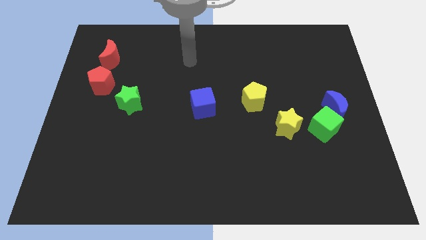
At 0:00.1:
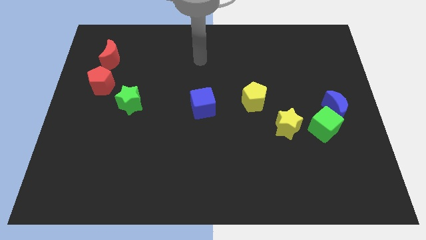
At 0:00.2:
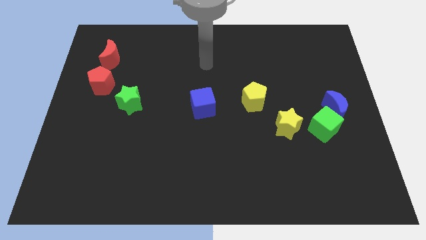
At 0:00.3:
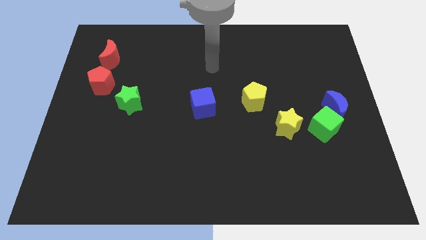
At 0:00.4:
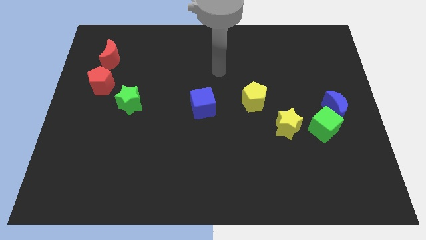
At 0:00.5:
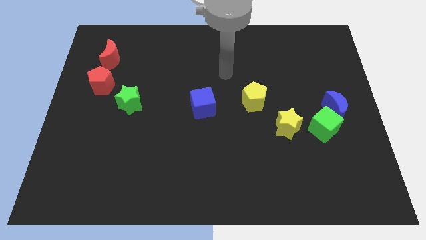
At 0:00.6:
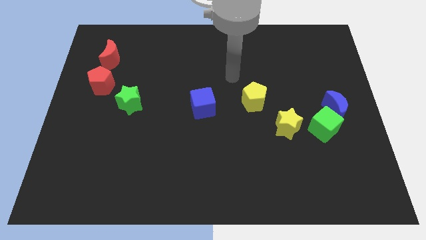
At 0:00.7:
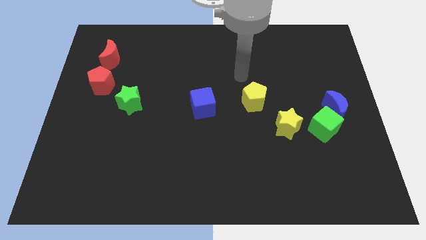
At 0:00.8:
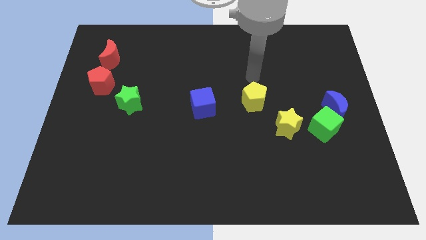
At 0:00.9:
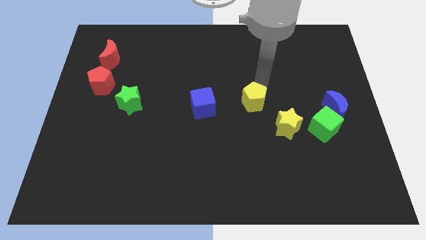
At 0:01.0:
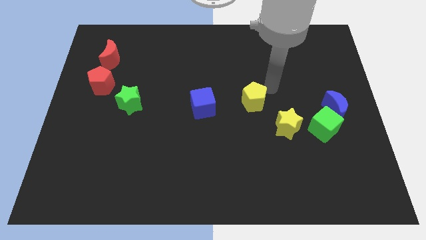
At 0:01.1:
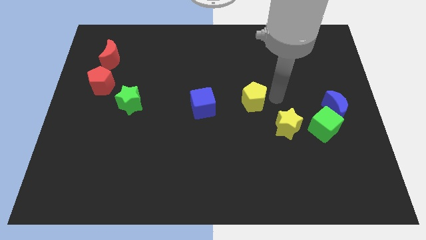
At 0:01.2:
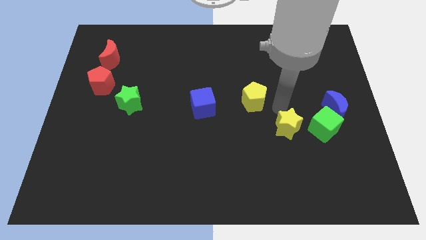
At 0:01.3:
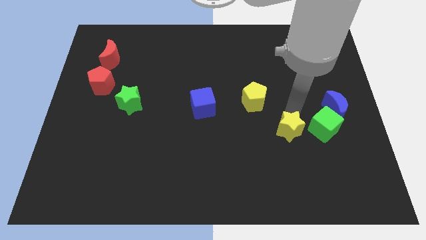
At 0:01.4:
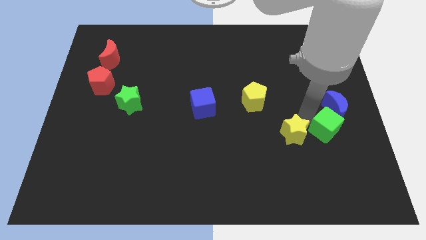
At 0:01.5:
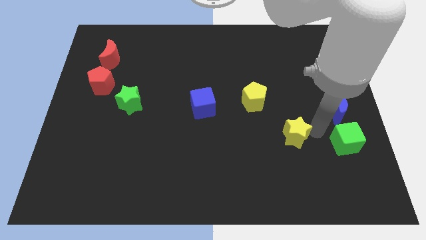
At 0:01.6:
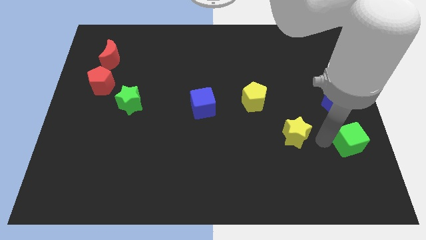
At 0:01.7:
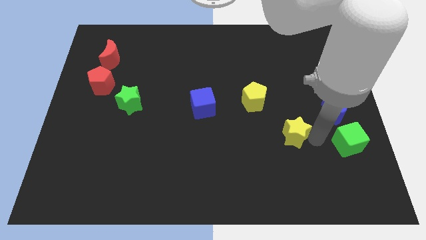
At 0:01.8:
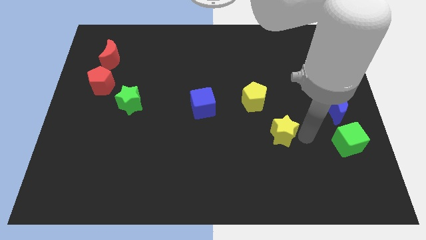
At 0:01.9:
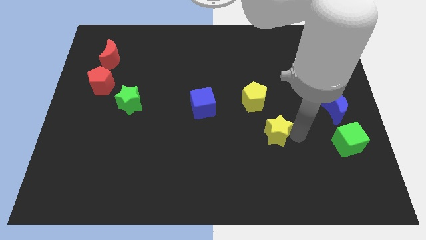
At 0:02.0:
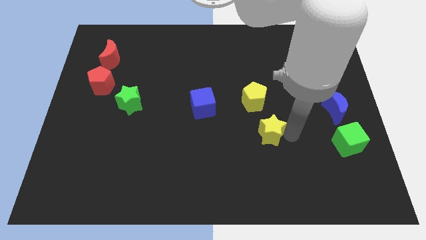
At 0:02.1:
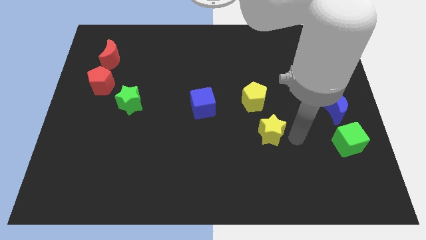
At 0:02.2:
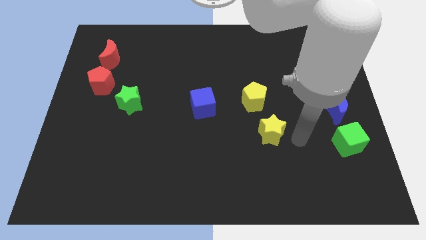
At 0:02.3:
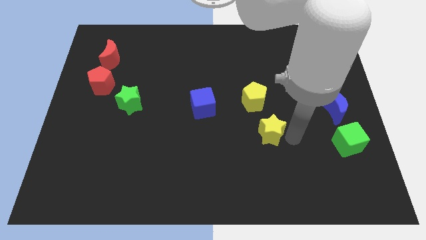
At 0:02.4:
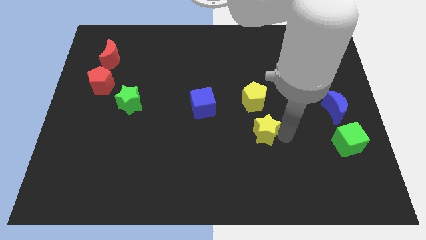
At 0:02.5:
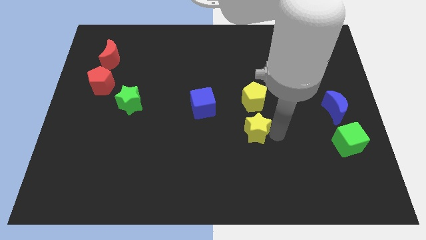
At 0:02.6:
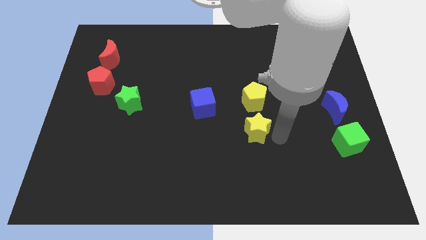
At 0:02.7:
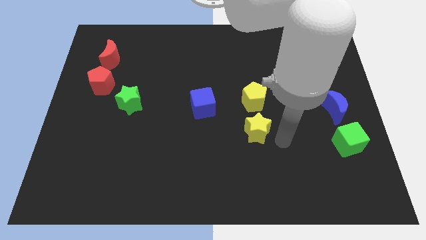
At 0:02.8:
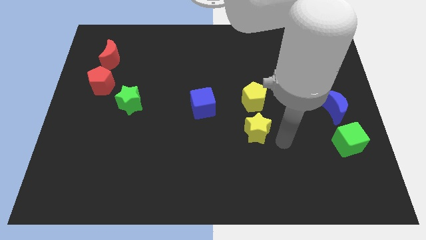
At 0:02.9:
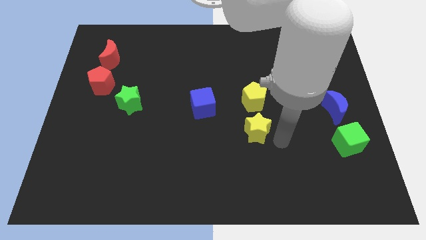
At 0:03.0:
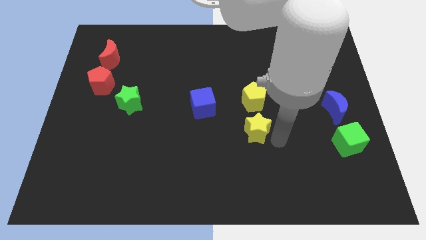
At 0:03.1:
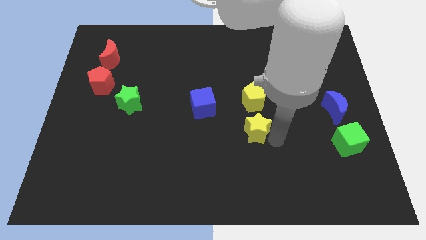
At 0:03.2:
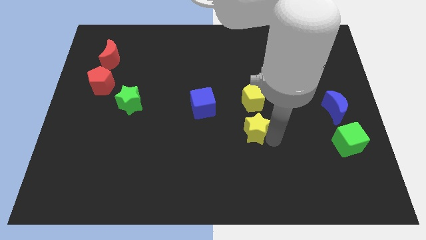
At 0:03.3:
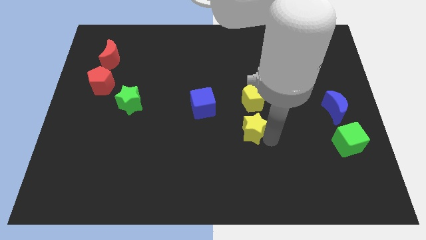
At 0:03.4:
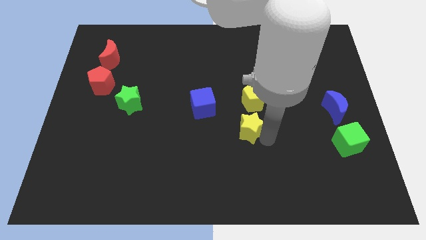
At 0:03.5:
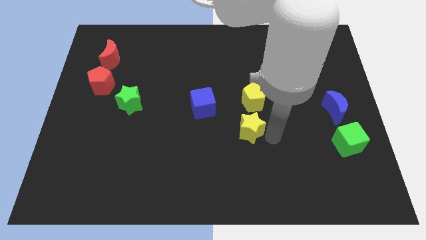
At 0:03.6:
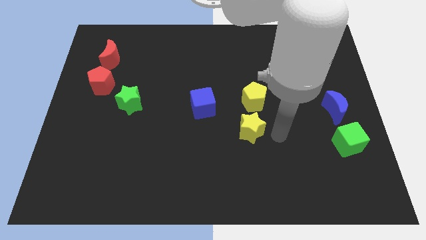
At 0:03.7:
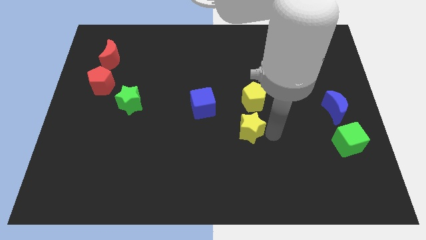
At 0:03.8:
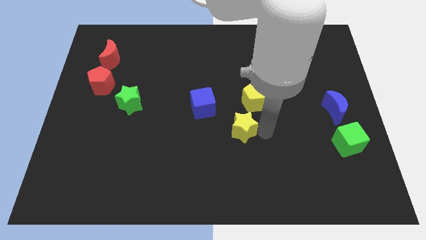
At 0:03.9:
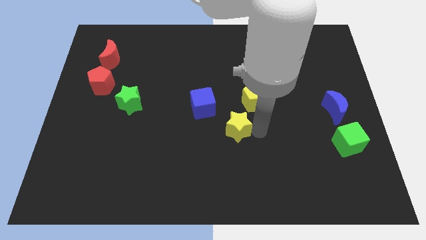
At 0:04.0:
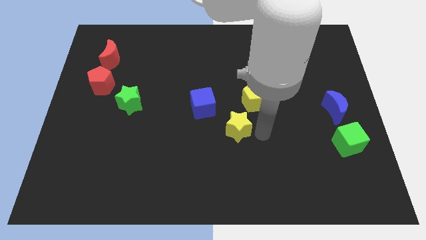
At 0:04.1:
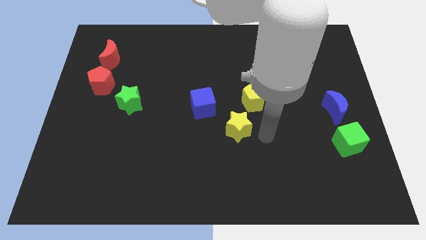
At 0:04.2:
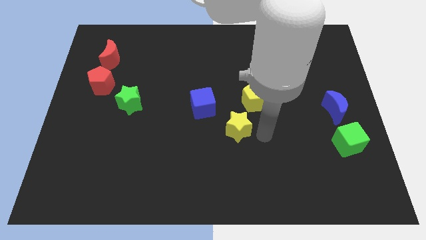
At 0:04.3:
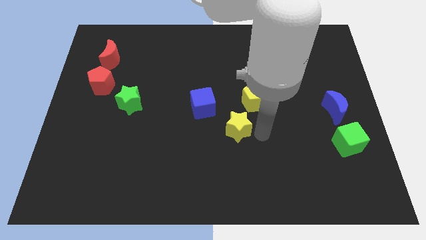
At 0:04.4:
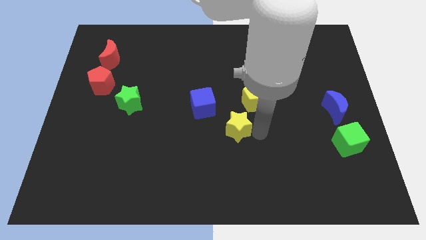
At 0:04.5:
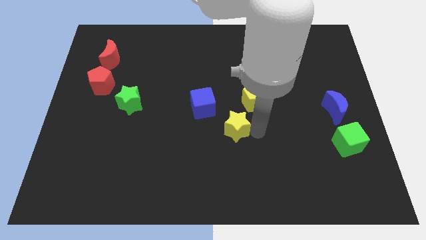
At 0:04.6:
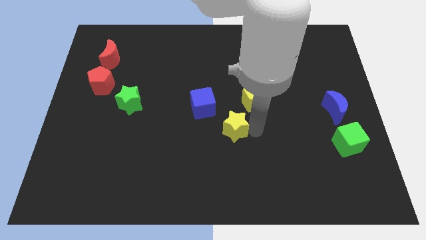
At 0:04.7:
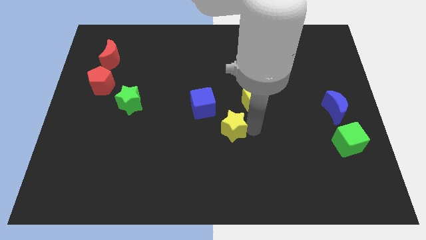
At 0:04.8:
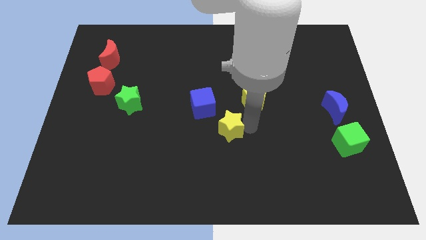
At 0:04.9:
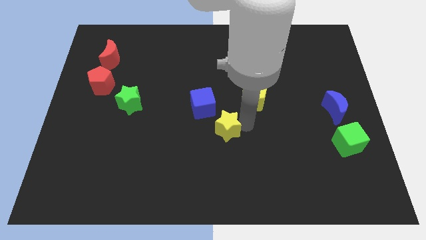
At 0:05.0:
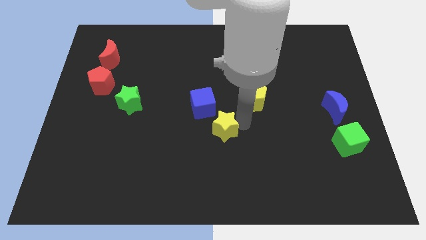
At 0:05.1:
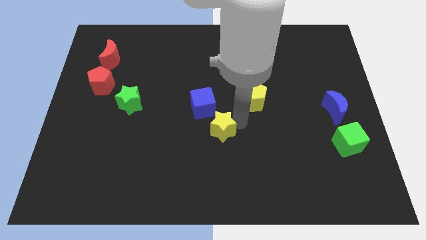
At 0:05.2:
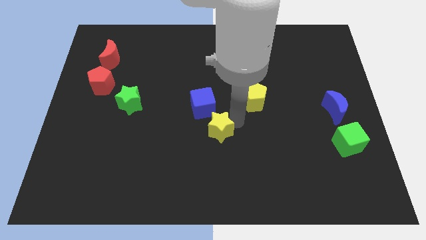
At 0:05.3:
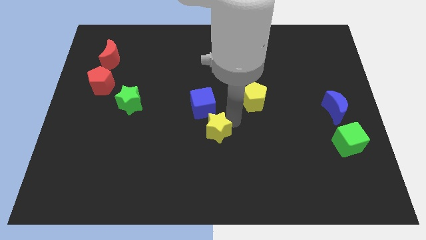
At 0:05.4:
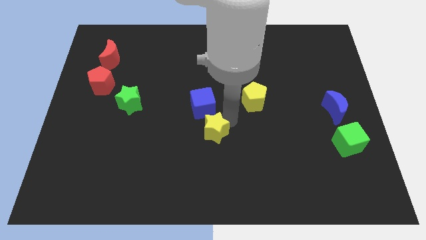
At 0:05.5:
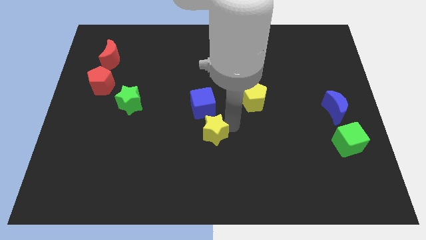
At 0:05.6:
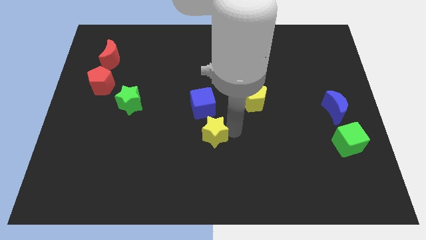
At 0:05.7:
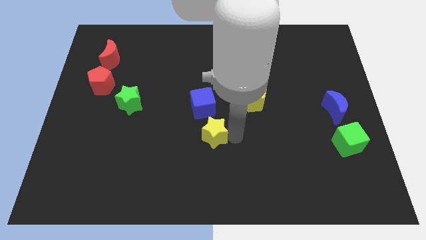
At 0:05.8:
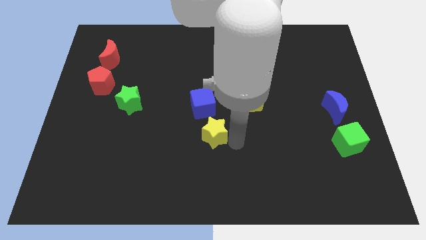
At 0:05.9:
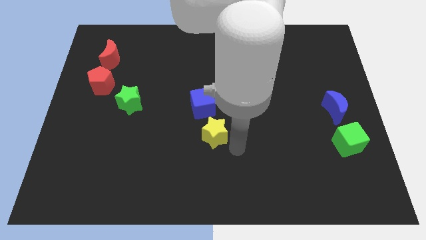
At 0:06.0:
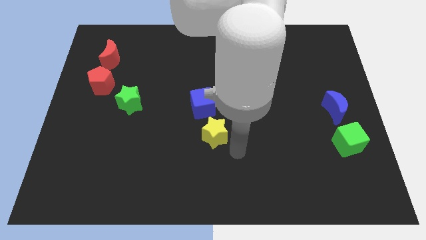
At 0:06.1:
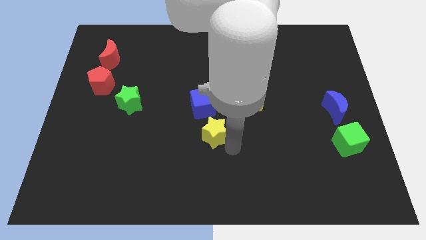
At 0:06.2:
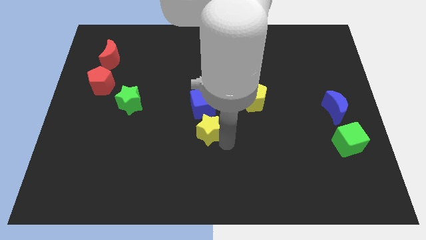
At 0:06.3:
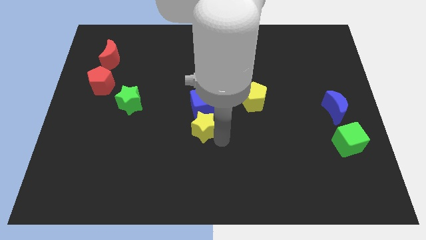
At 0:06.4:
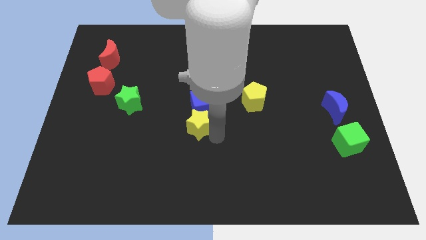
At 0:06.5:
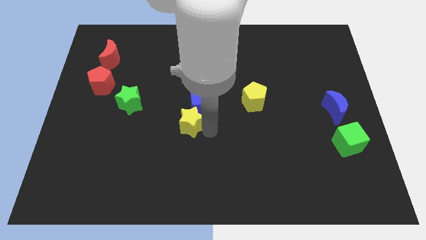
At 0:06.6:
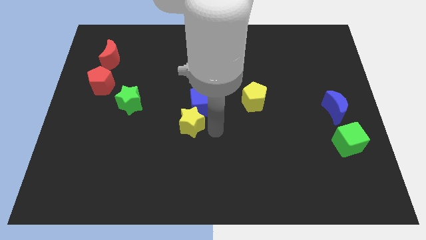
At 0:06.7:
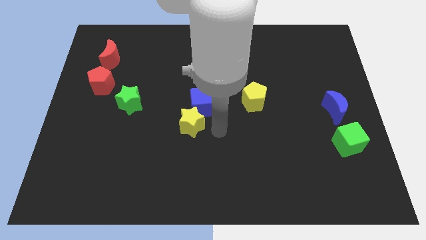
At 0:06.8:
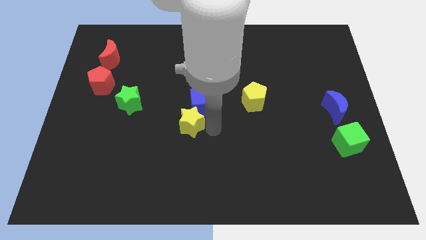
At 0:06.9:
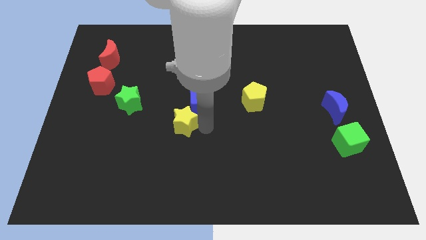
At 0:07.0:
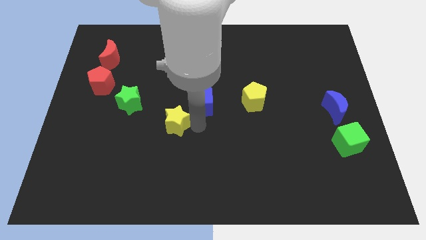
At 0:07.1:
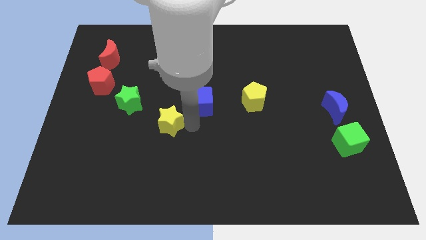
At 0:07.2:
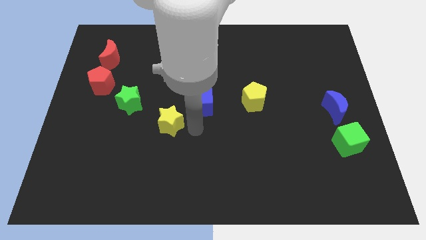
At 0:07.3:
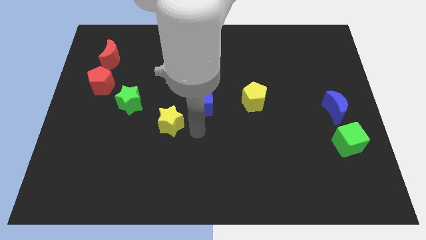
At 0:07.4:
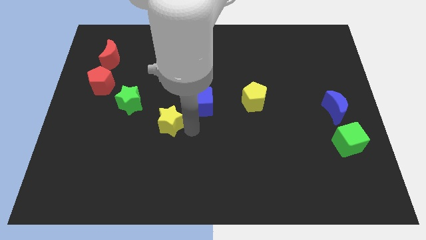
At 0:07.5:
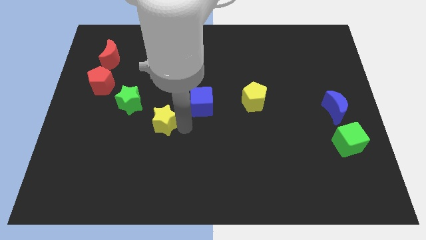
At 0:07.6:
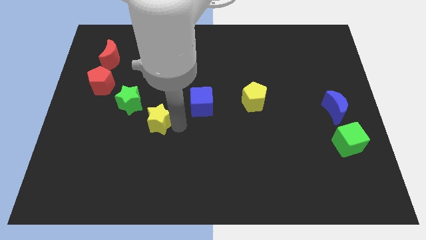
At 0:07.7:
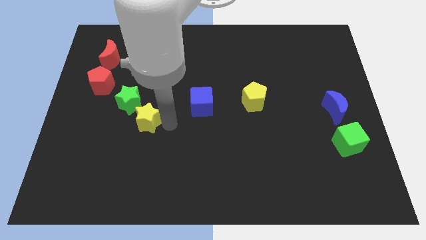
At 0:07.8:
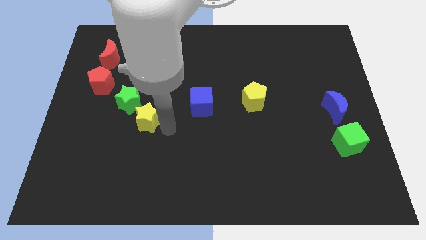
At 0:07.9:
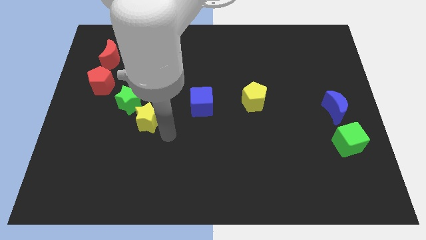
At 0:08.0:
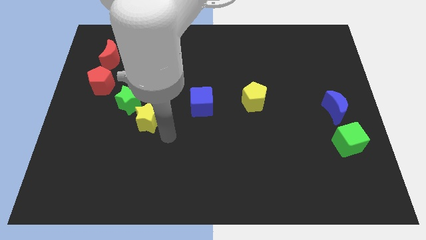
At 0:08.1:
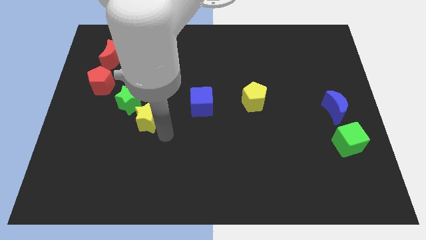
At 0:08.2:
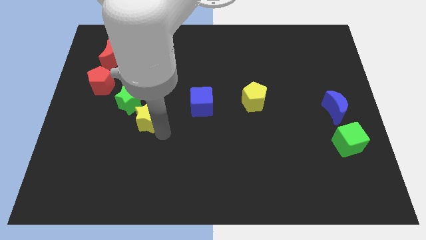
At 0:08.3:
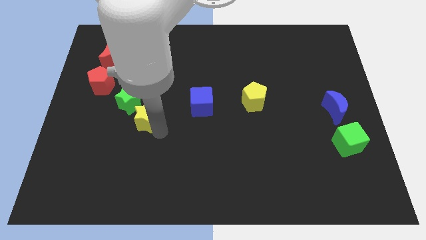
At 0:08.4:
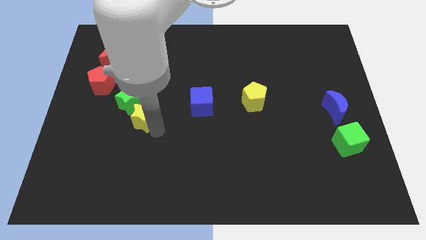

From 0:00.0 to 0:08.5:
push the yellow star close to the green star
